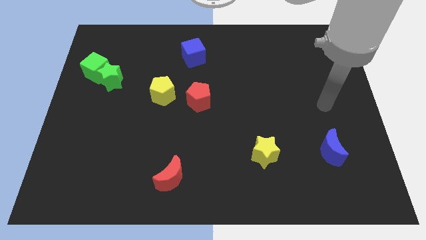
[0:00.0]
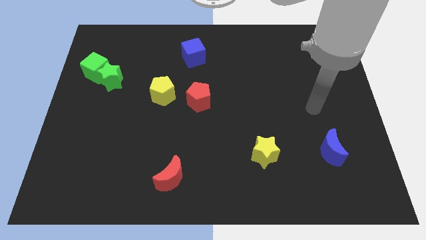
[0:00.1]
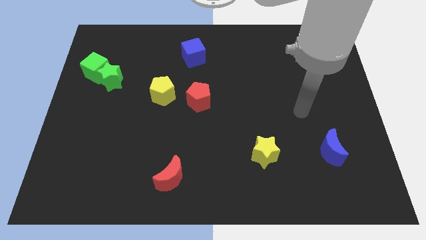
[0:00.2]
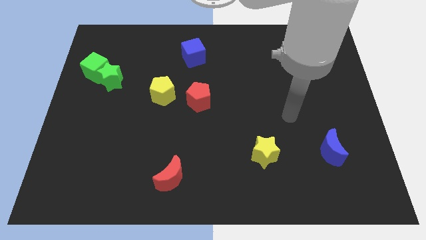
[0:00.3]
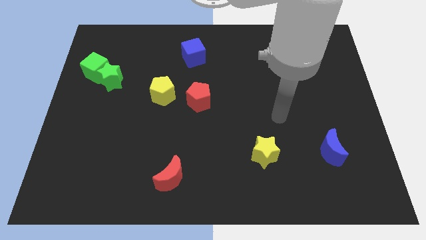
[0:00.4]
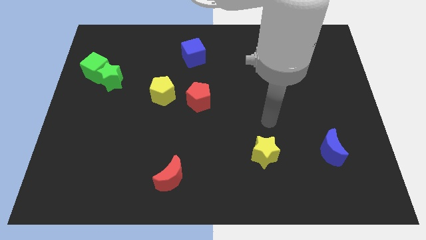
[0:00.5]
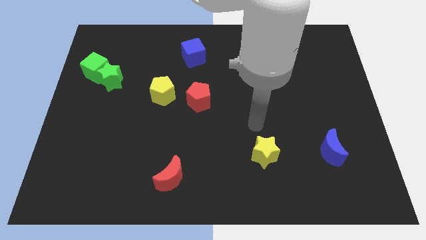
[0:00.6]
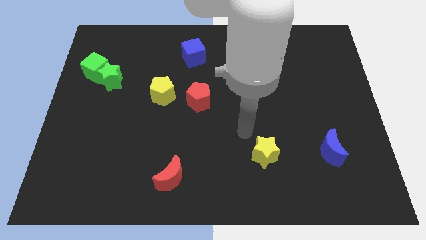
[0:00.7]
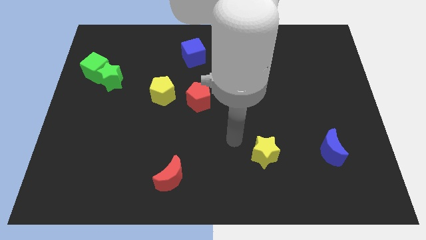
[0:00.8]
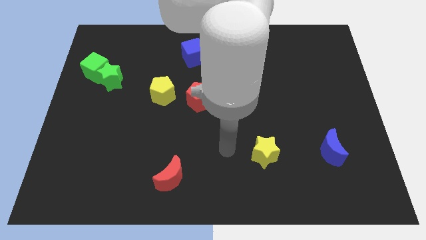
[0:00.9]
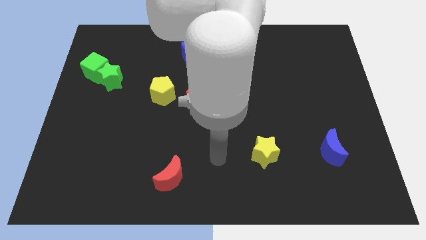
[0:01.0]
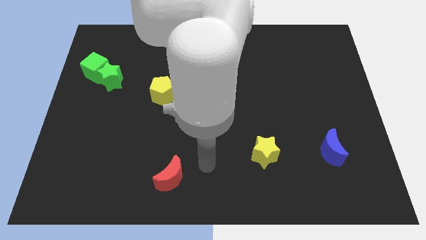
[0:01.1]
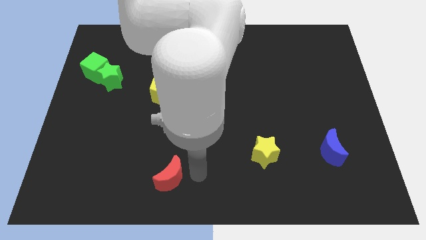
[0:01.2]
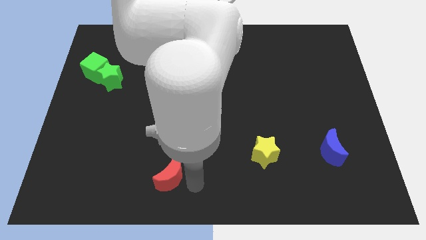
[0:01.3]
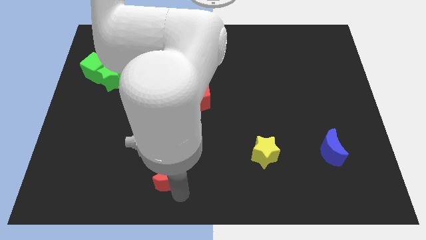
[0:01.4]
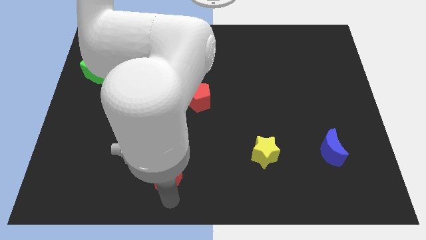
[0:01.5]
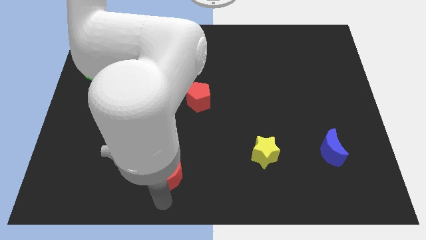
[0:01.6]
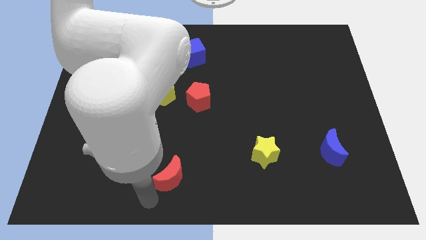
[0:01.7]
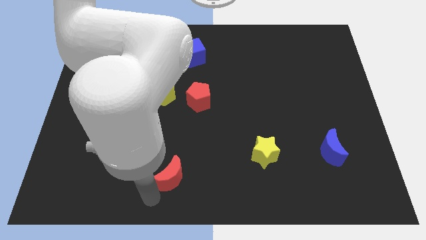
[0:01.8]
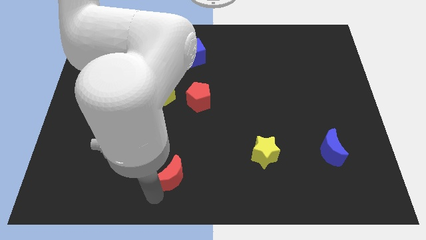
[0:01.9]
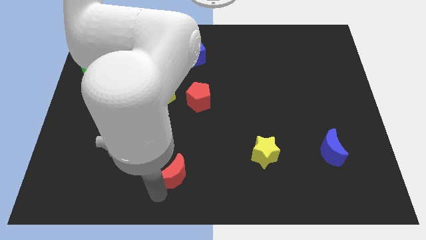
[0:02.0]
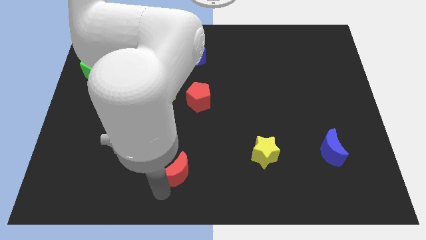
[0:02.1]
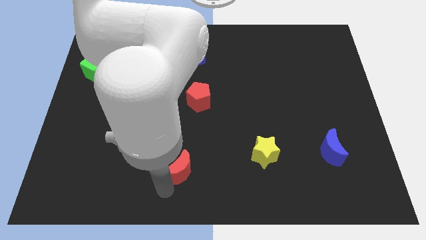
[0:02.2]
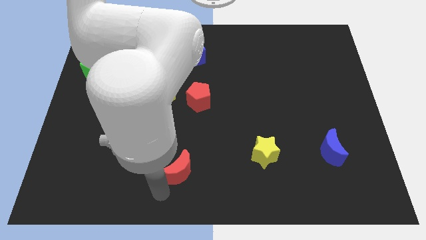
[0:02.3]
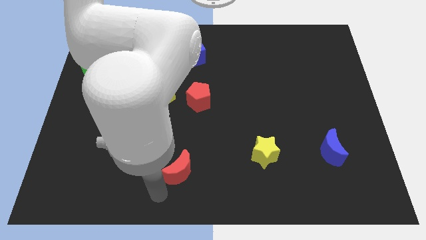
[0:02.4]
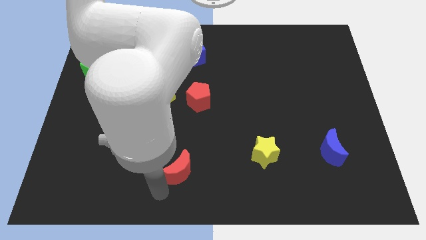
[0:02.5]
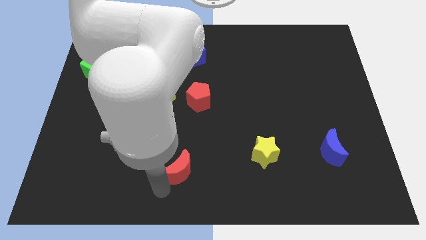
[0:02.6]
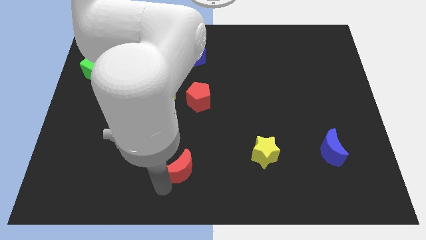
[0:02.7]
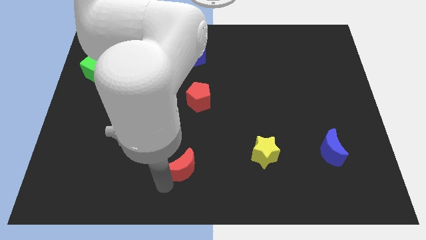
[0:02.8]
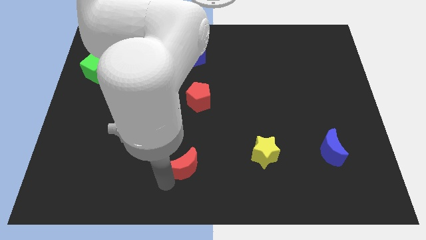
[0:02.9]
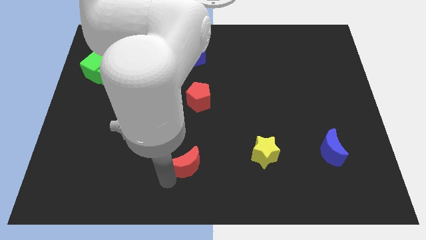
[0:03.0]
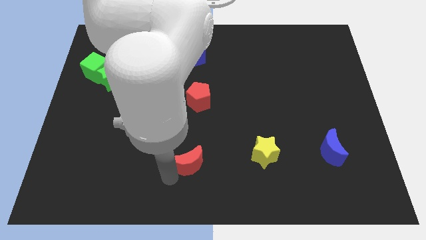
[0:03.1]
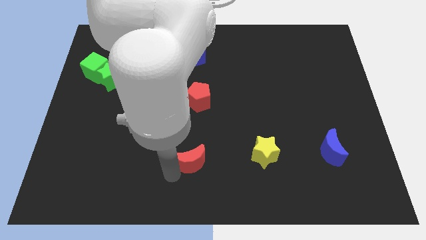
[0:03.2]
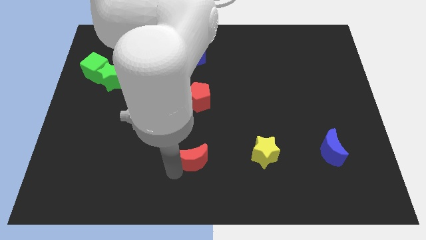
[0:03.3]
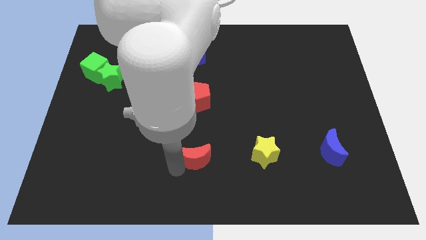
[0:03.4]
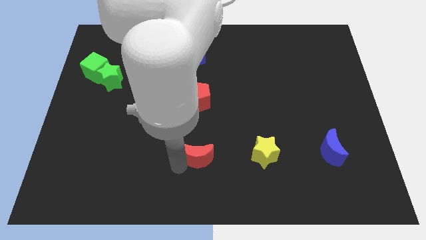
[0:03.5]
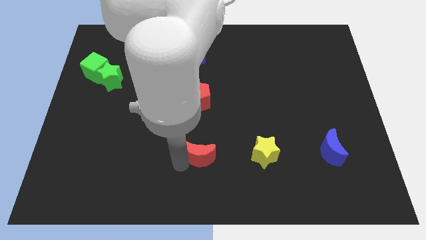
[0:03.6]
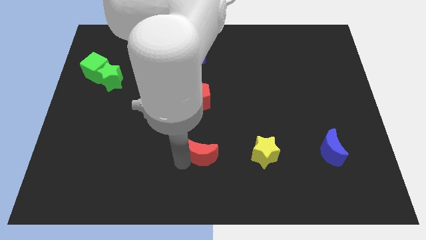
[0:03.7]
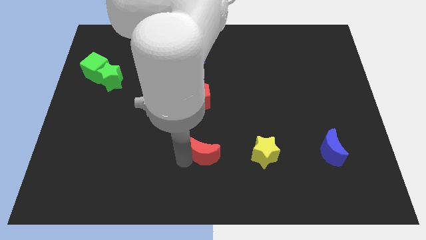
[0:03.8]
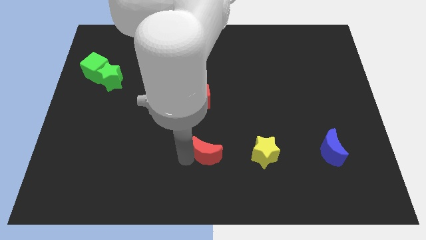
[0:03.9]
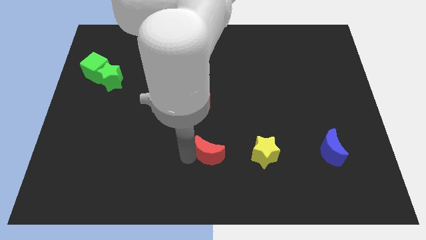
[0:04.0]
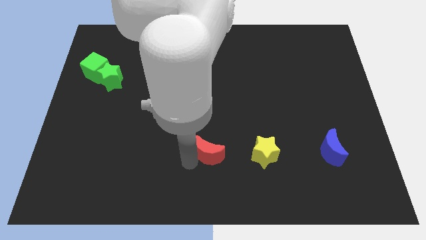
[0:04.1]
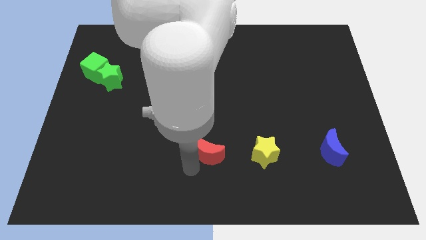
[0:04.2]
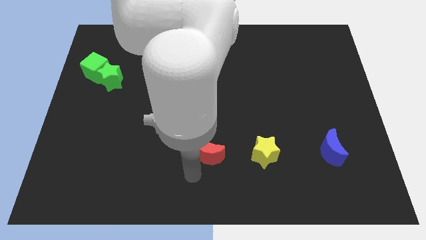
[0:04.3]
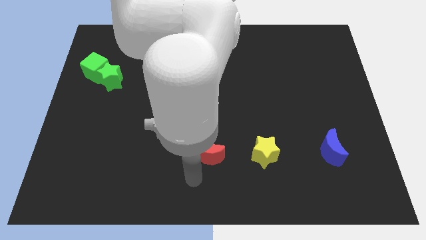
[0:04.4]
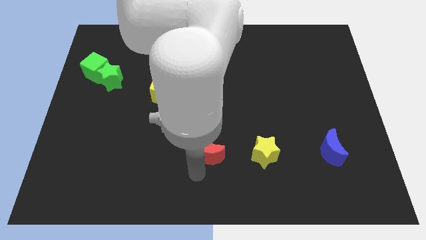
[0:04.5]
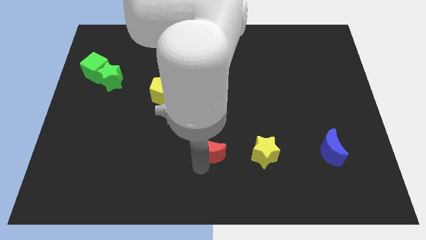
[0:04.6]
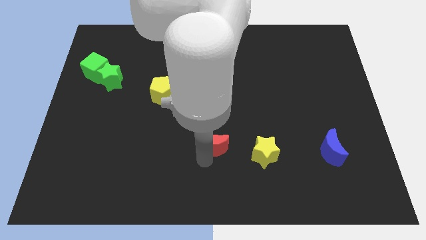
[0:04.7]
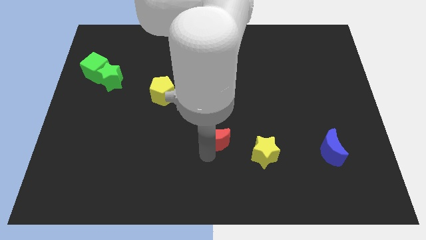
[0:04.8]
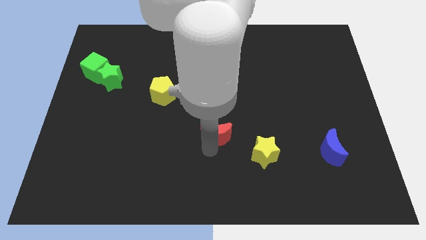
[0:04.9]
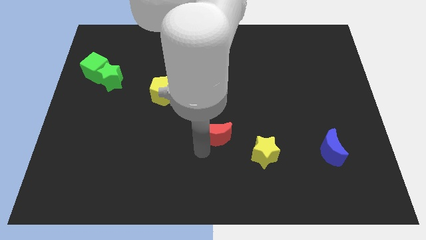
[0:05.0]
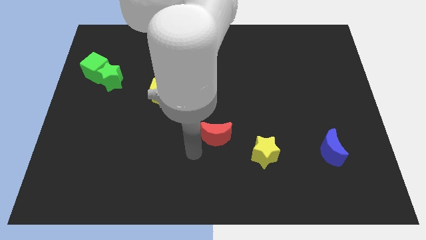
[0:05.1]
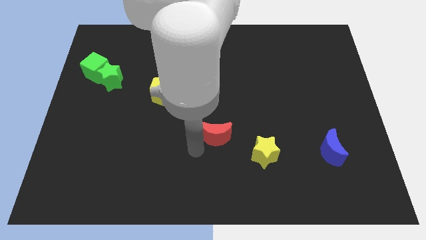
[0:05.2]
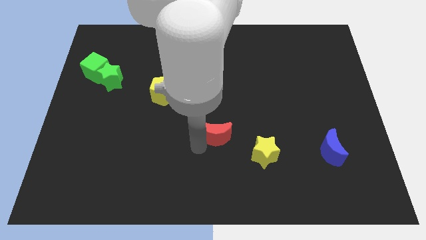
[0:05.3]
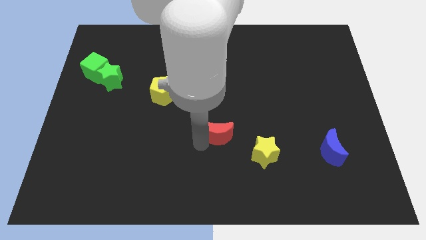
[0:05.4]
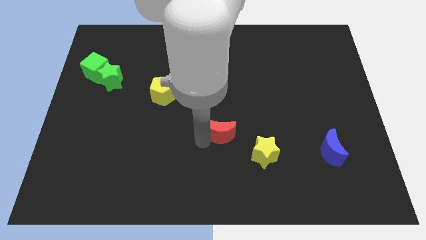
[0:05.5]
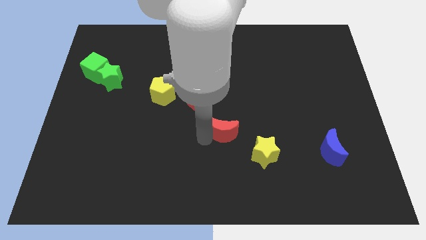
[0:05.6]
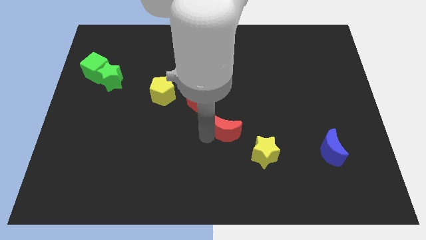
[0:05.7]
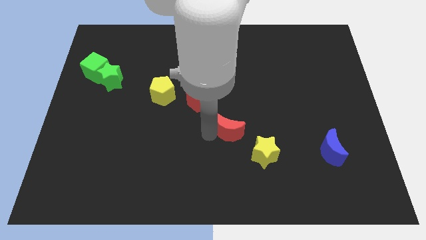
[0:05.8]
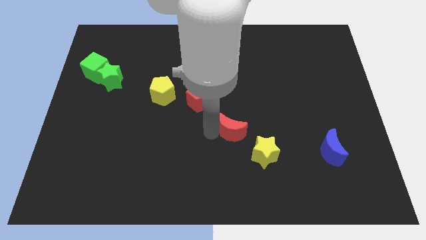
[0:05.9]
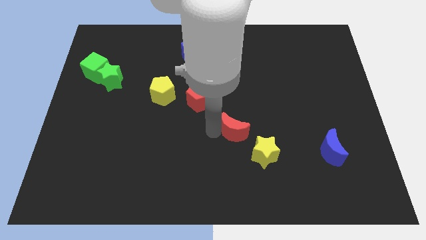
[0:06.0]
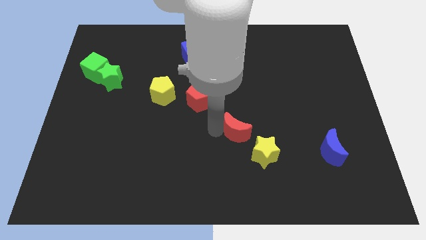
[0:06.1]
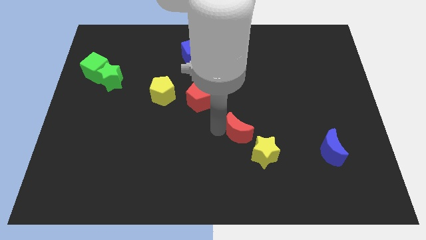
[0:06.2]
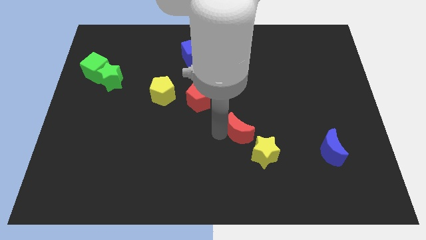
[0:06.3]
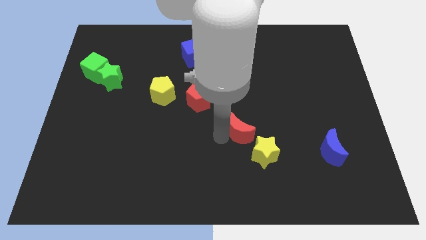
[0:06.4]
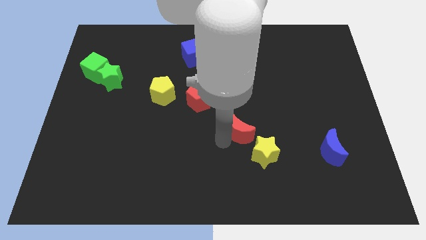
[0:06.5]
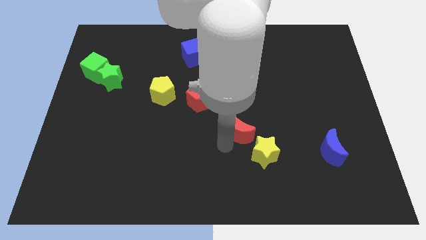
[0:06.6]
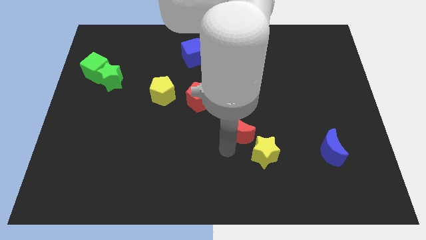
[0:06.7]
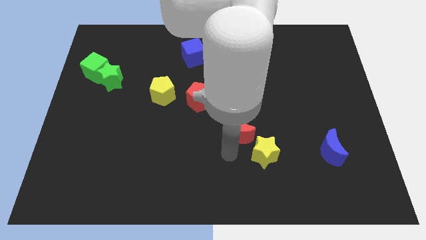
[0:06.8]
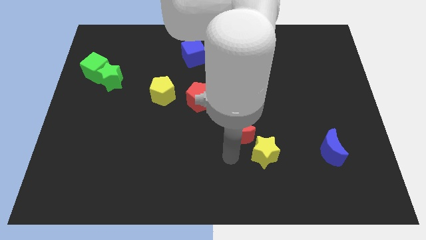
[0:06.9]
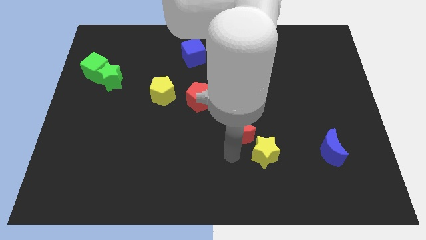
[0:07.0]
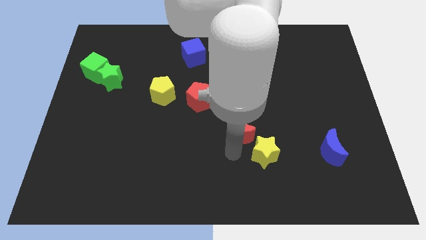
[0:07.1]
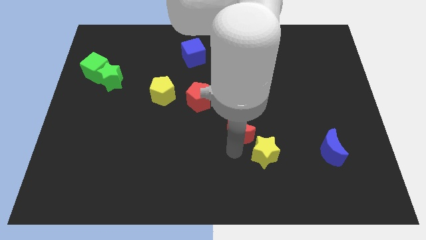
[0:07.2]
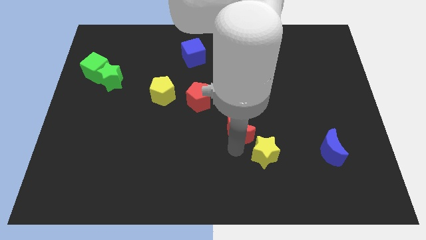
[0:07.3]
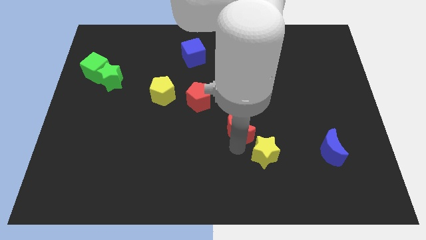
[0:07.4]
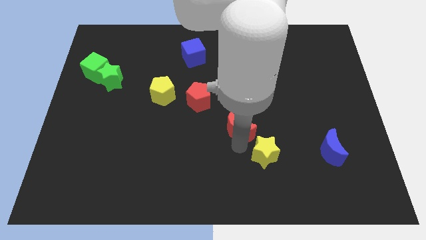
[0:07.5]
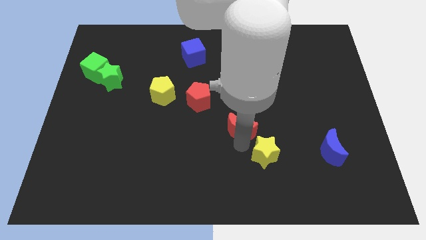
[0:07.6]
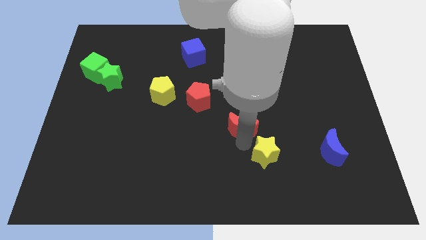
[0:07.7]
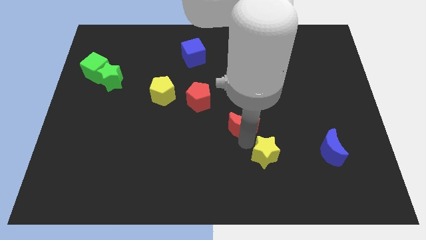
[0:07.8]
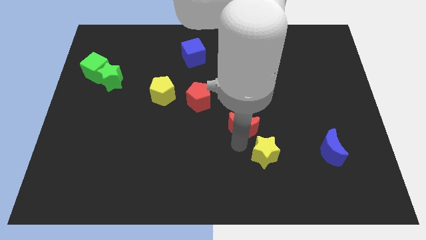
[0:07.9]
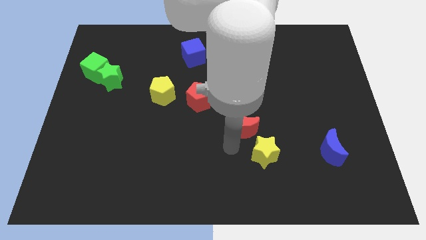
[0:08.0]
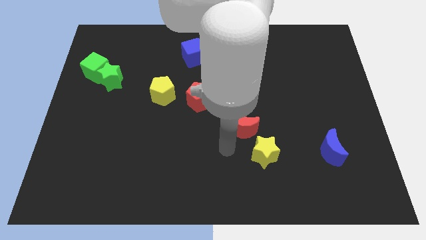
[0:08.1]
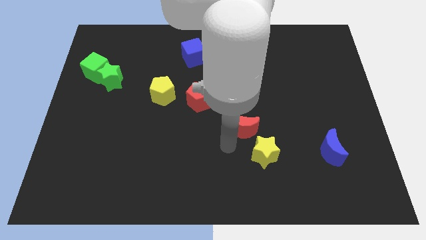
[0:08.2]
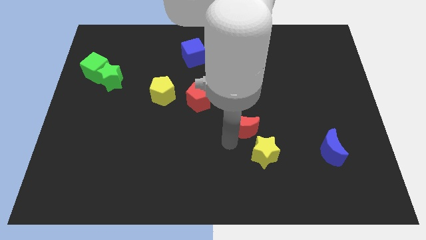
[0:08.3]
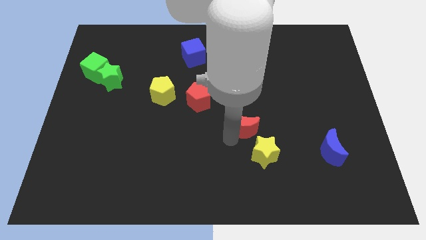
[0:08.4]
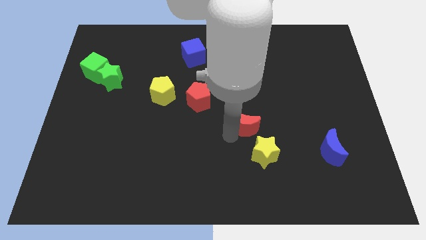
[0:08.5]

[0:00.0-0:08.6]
move the red moon up and then to the right
